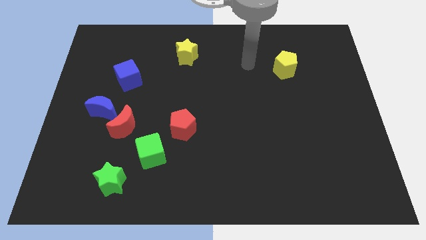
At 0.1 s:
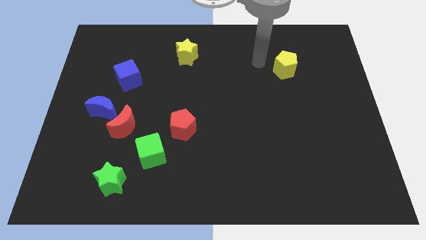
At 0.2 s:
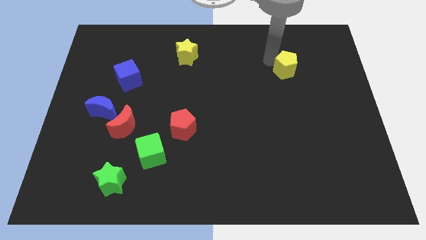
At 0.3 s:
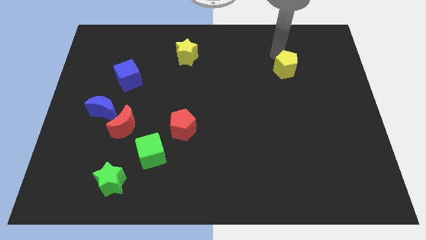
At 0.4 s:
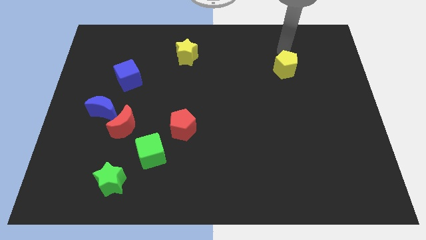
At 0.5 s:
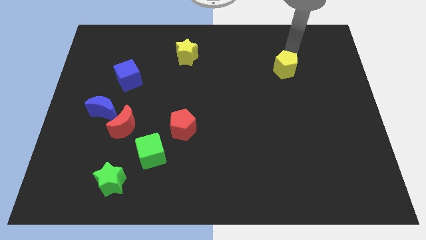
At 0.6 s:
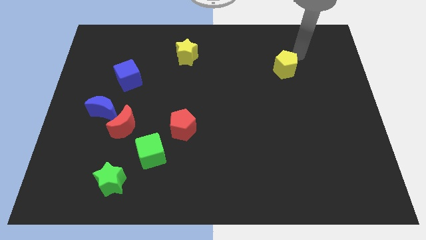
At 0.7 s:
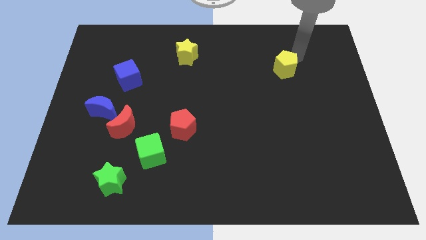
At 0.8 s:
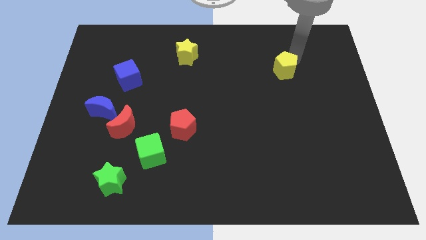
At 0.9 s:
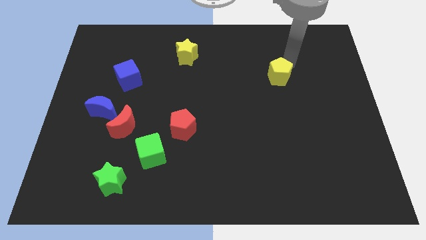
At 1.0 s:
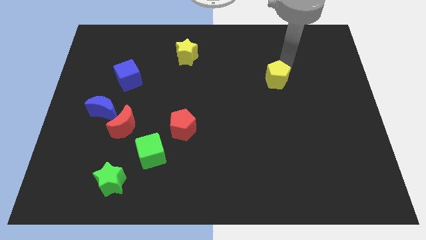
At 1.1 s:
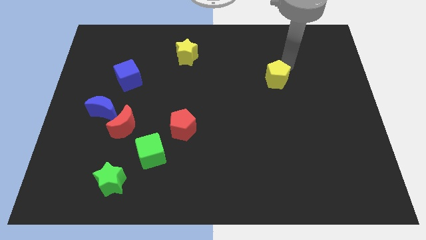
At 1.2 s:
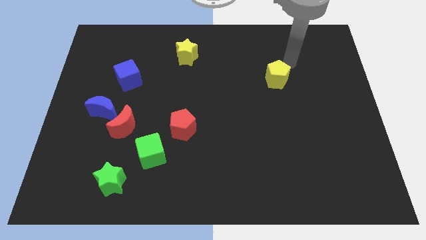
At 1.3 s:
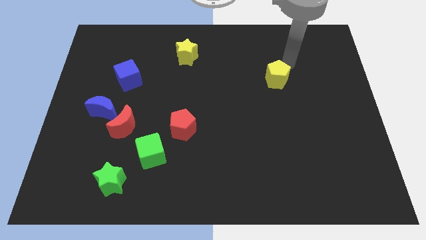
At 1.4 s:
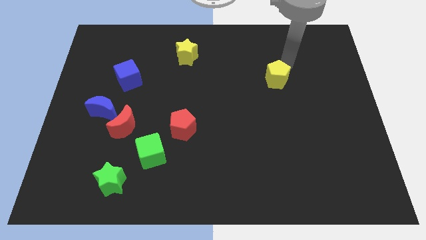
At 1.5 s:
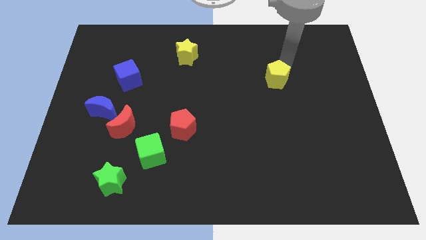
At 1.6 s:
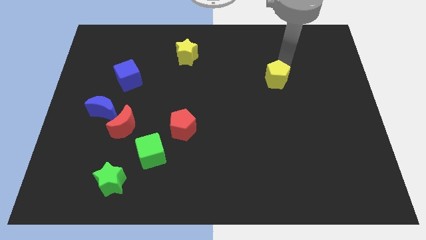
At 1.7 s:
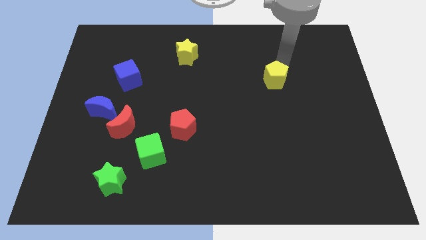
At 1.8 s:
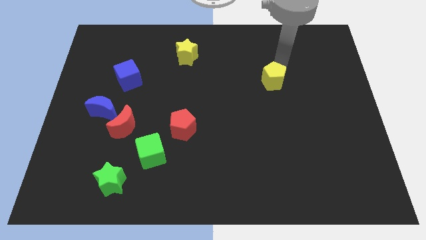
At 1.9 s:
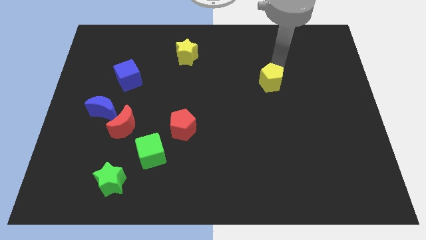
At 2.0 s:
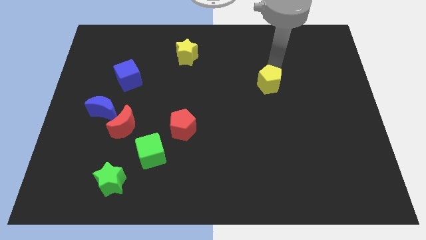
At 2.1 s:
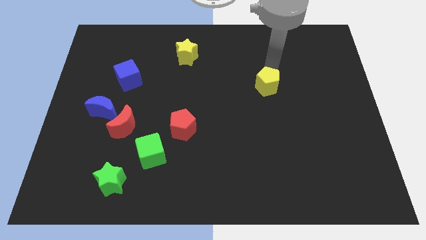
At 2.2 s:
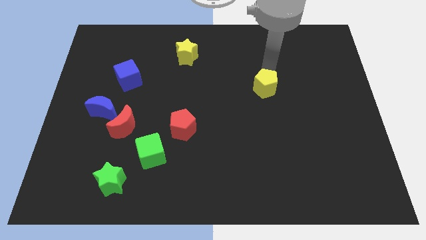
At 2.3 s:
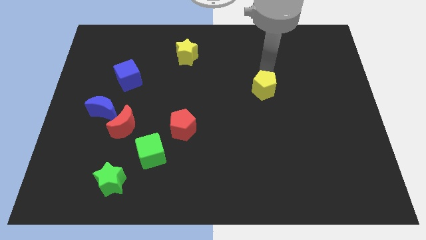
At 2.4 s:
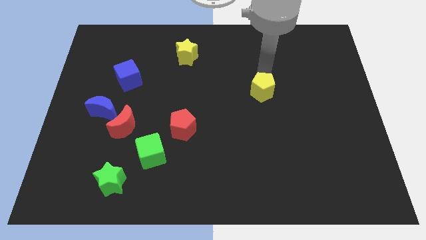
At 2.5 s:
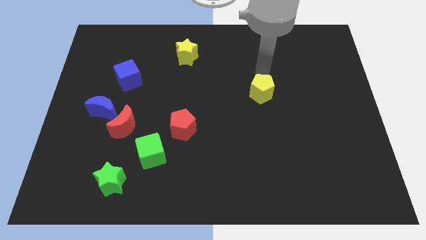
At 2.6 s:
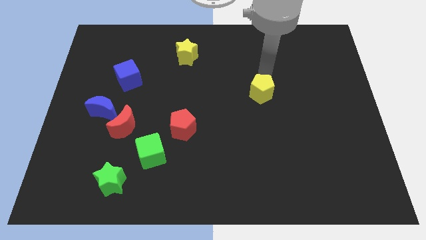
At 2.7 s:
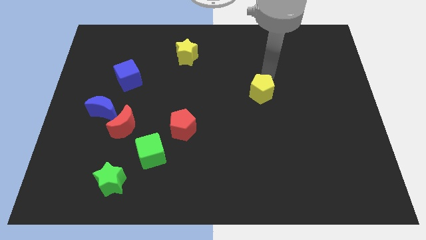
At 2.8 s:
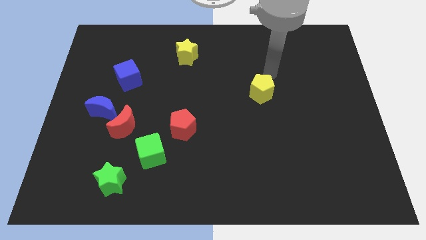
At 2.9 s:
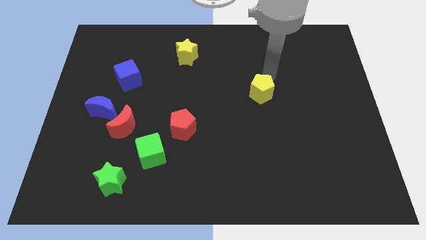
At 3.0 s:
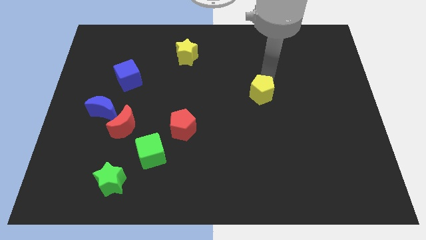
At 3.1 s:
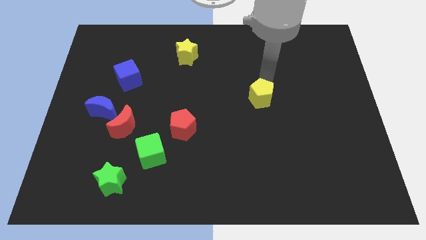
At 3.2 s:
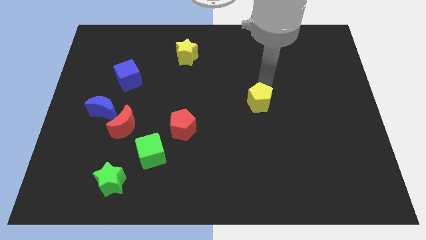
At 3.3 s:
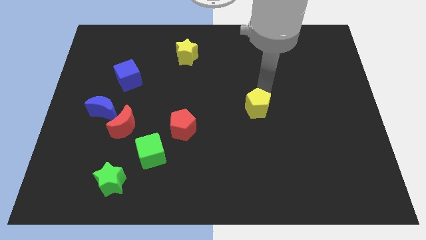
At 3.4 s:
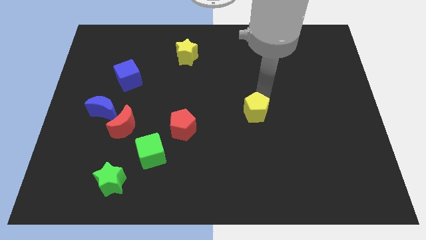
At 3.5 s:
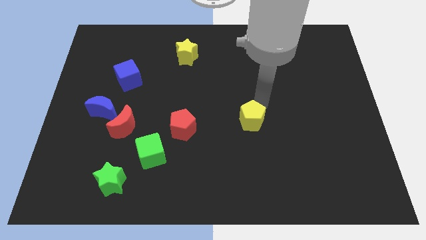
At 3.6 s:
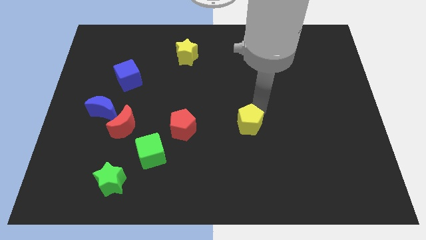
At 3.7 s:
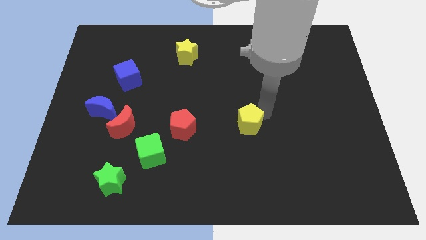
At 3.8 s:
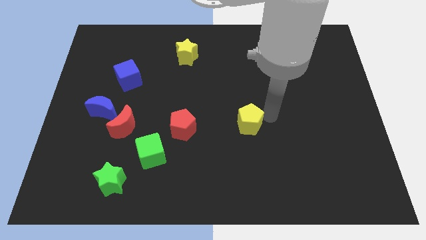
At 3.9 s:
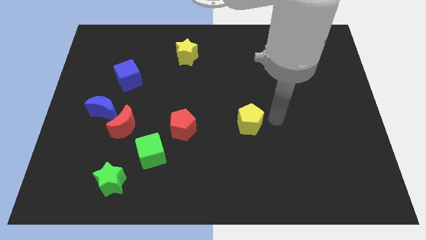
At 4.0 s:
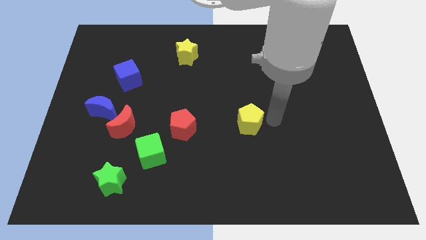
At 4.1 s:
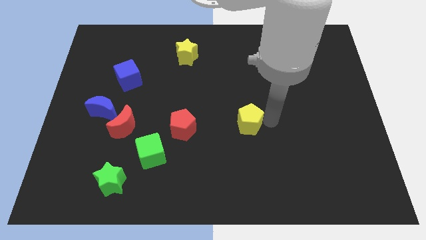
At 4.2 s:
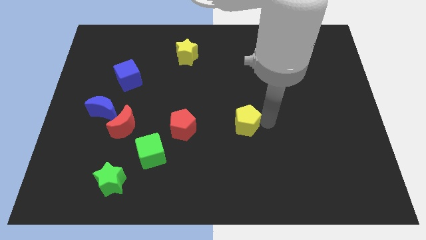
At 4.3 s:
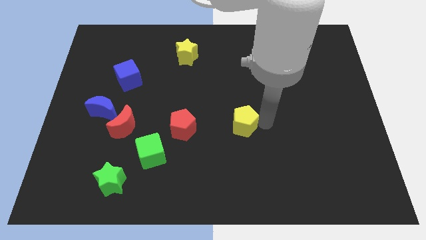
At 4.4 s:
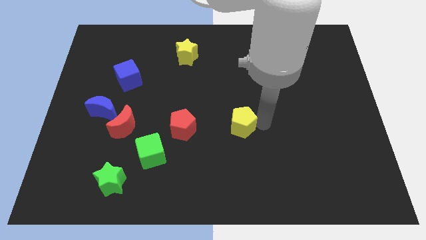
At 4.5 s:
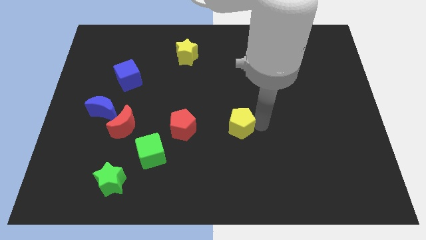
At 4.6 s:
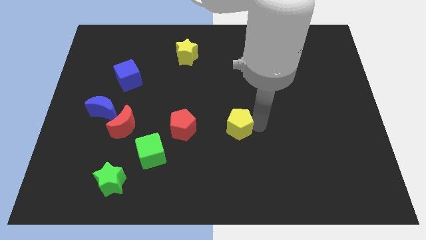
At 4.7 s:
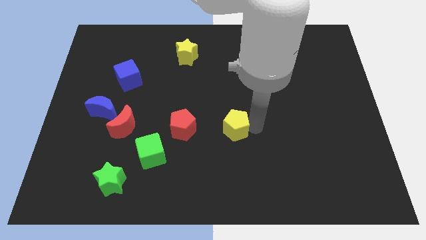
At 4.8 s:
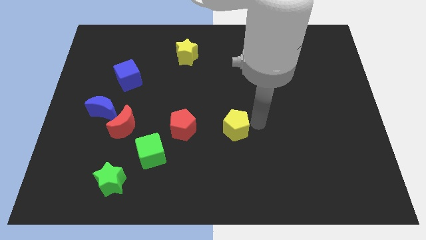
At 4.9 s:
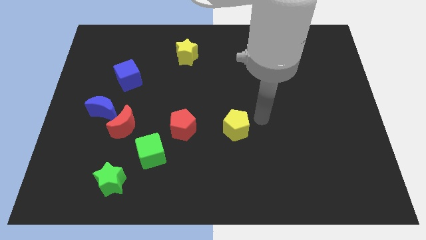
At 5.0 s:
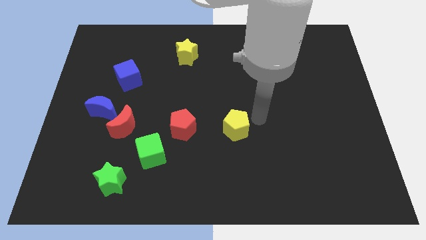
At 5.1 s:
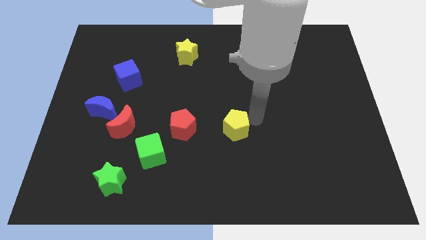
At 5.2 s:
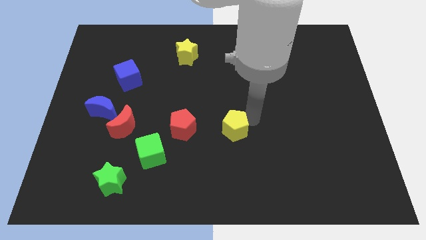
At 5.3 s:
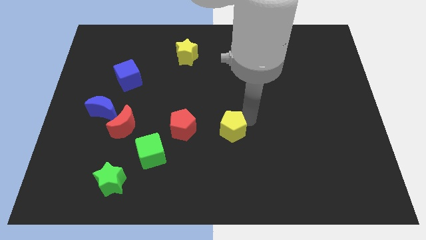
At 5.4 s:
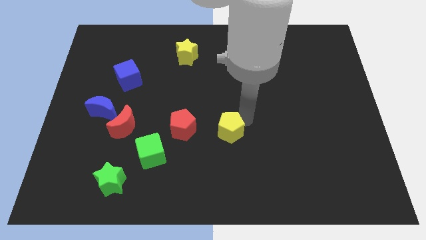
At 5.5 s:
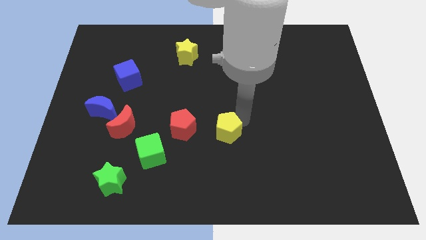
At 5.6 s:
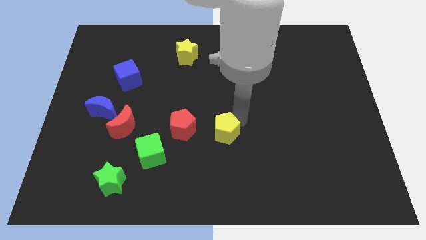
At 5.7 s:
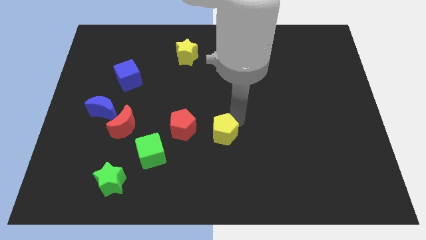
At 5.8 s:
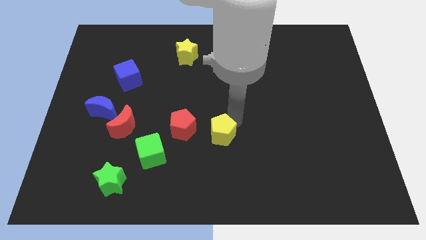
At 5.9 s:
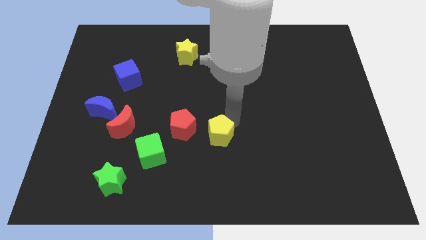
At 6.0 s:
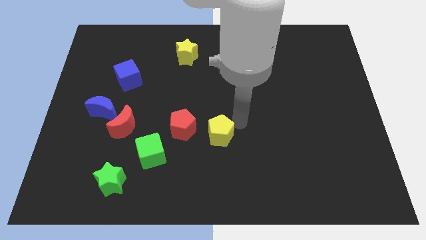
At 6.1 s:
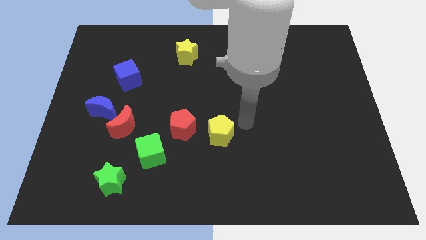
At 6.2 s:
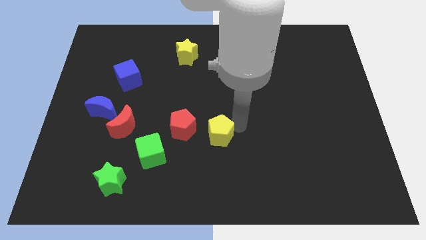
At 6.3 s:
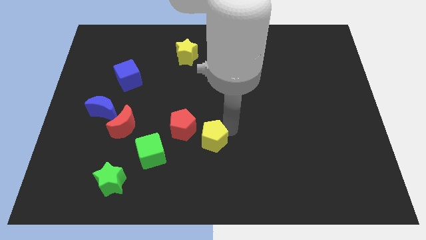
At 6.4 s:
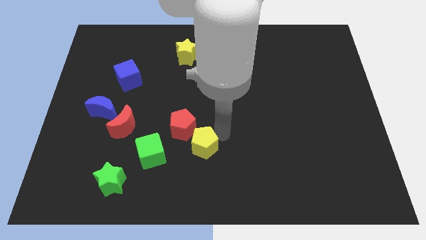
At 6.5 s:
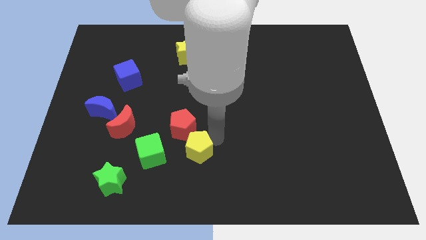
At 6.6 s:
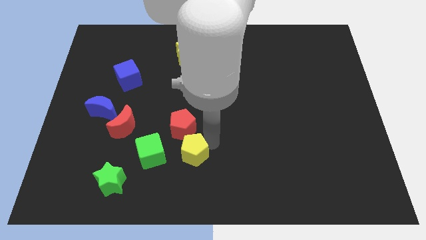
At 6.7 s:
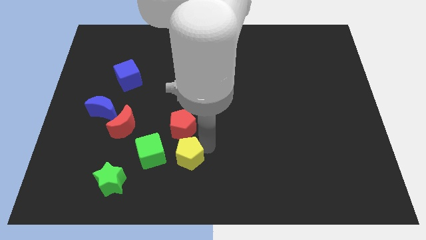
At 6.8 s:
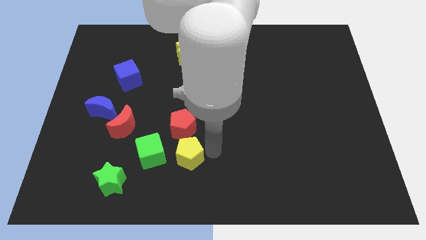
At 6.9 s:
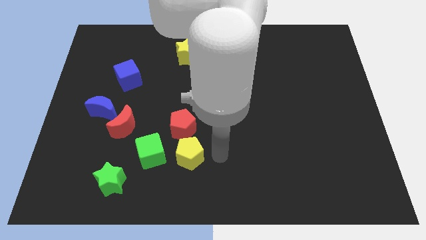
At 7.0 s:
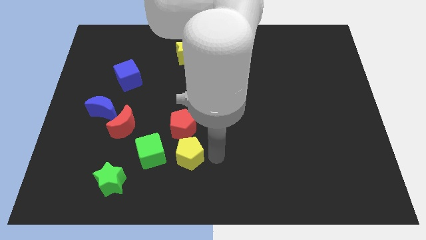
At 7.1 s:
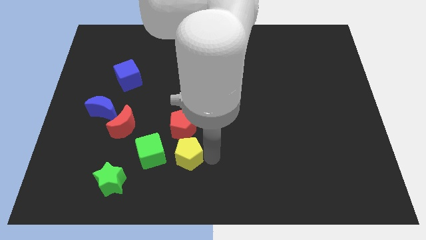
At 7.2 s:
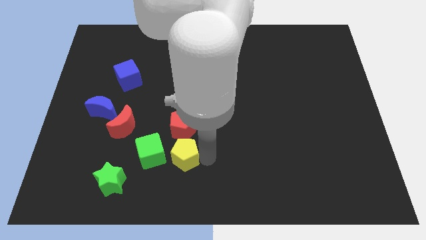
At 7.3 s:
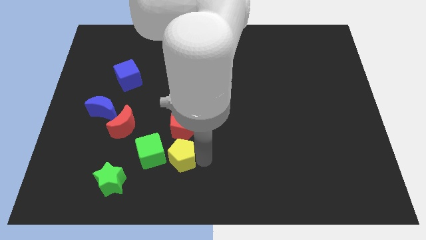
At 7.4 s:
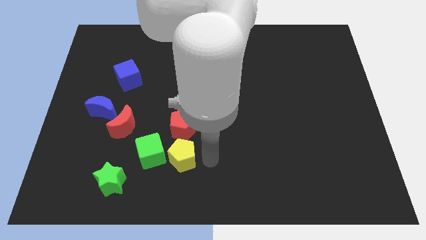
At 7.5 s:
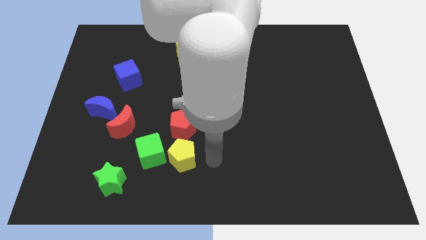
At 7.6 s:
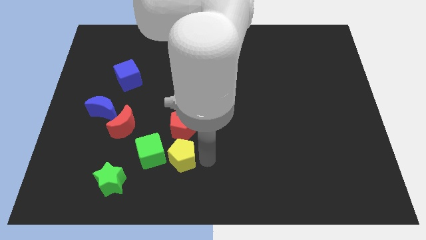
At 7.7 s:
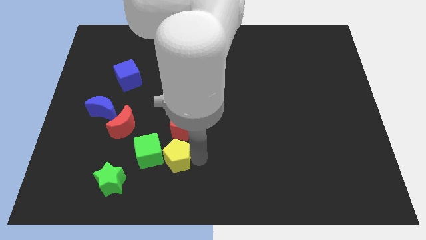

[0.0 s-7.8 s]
put the yellow pentagon next to the green cube
